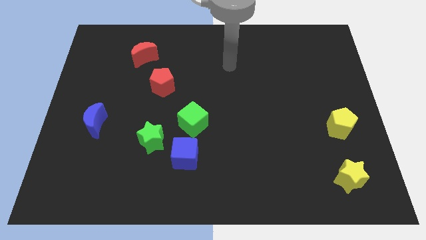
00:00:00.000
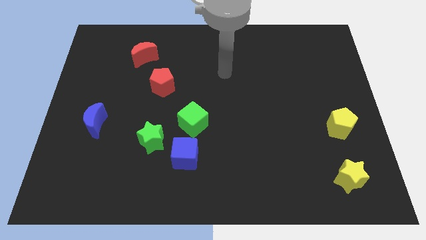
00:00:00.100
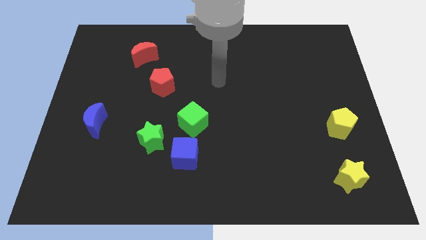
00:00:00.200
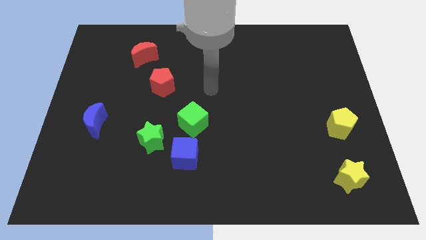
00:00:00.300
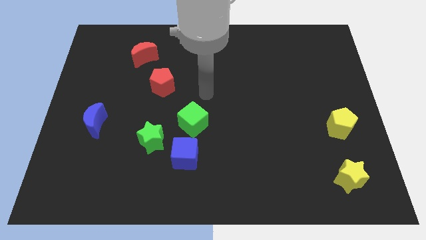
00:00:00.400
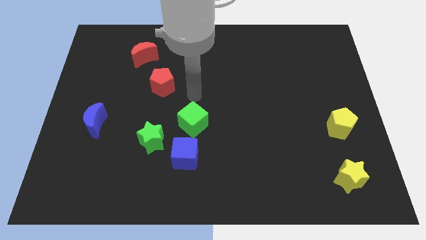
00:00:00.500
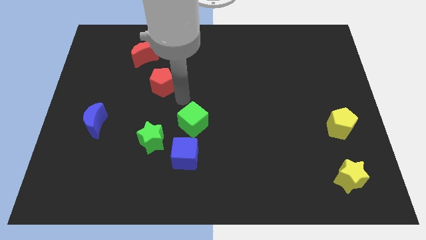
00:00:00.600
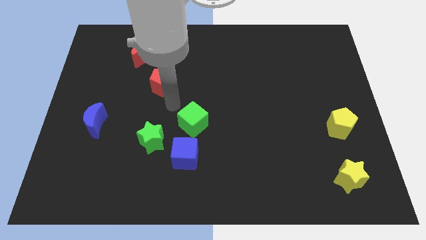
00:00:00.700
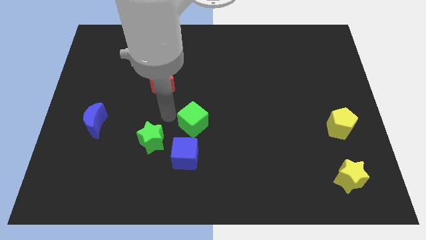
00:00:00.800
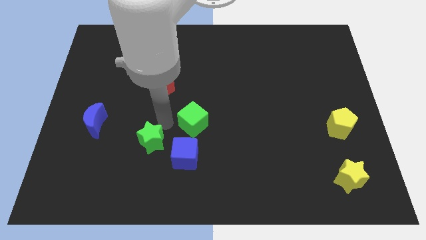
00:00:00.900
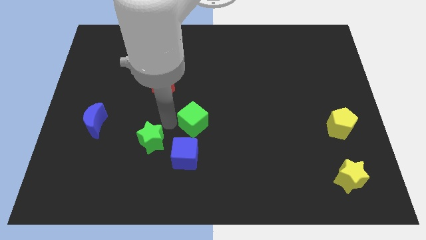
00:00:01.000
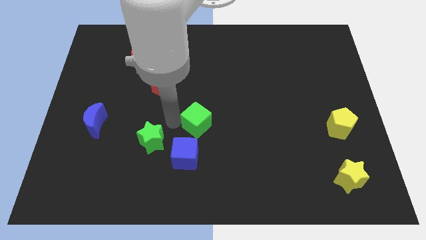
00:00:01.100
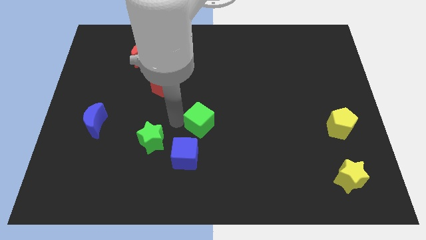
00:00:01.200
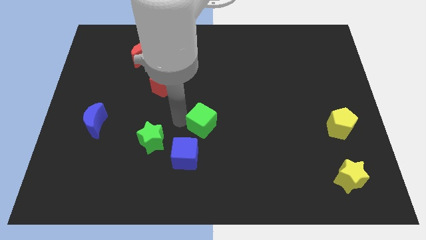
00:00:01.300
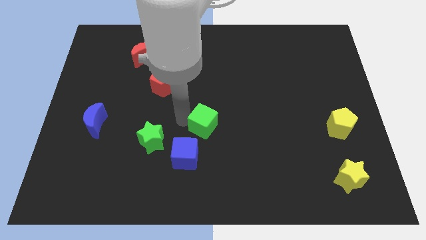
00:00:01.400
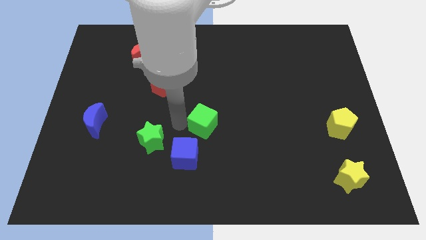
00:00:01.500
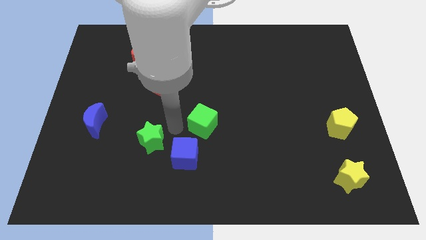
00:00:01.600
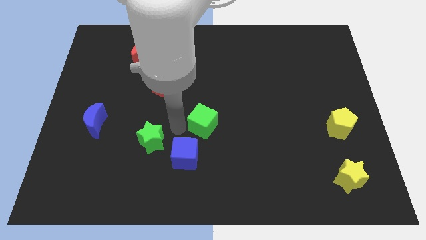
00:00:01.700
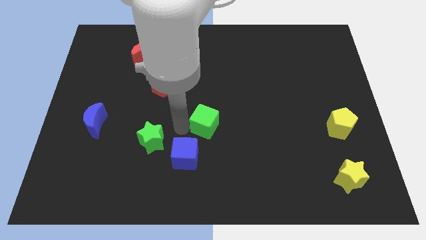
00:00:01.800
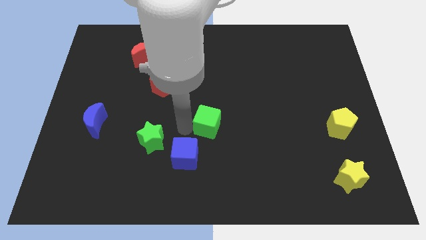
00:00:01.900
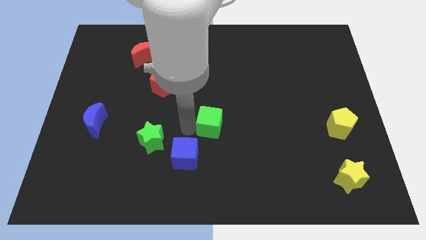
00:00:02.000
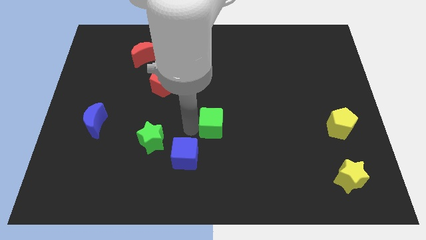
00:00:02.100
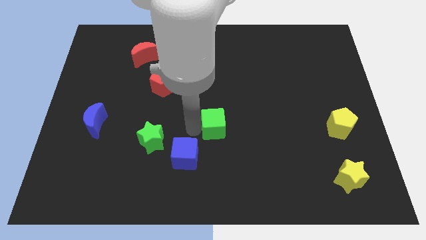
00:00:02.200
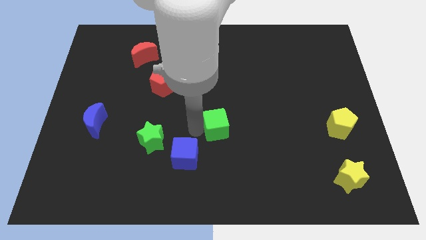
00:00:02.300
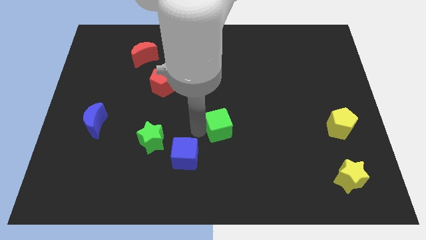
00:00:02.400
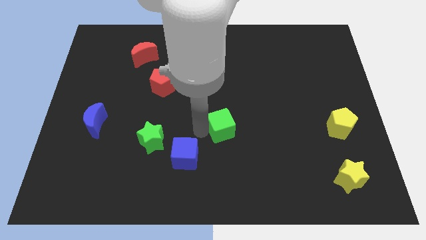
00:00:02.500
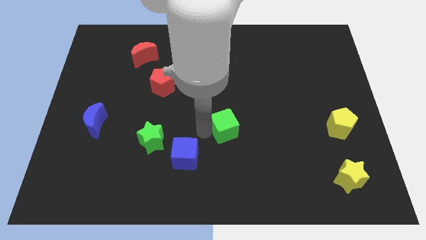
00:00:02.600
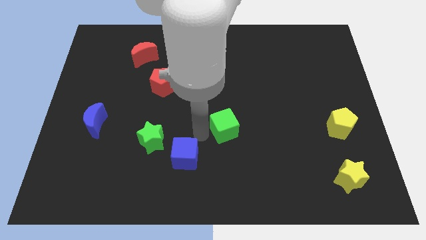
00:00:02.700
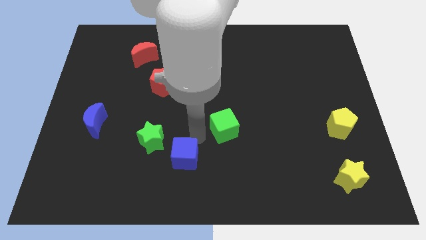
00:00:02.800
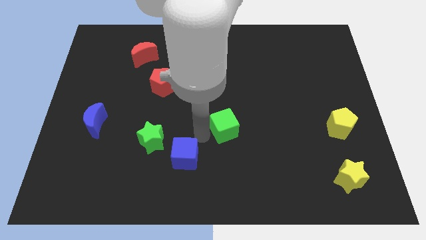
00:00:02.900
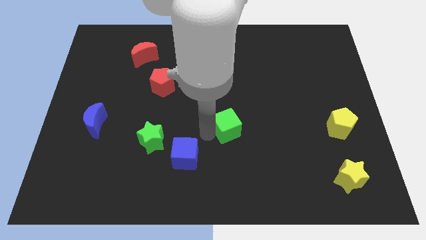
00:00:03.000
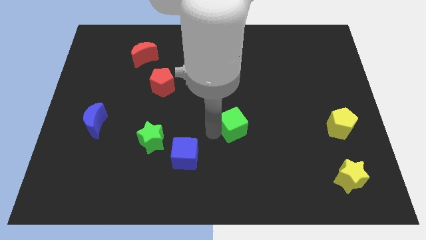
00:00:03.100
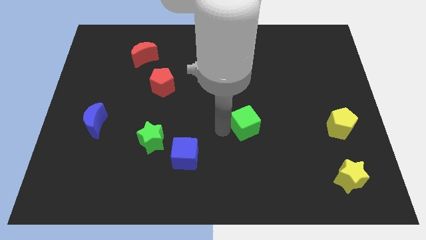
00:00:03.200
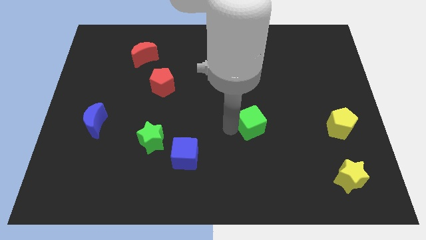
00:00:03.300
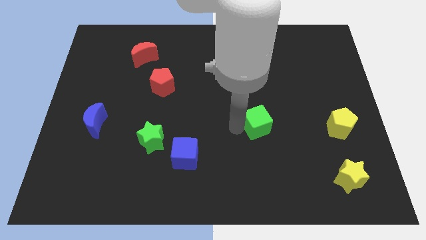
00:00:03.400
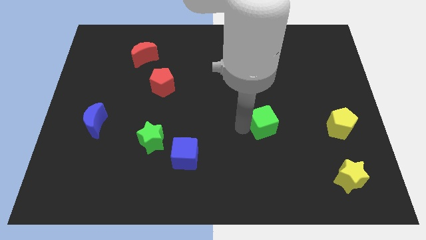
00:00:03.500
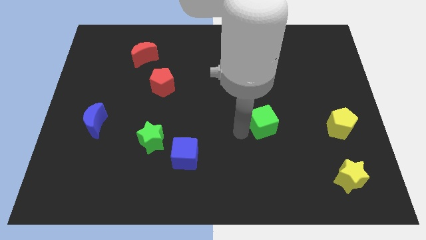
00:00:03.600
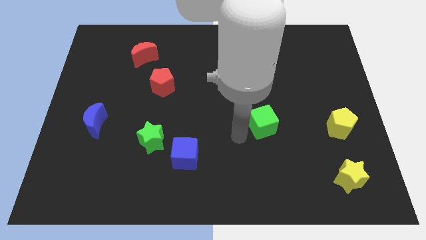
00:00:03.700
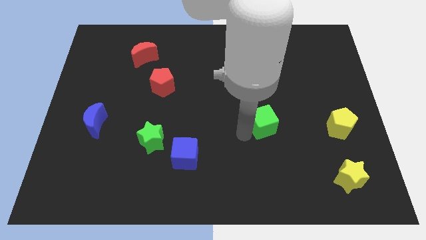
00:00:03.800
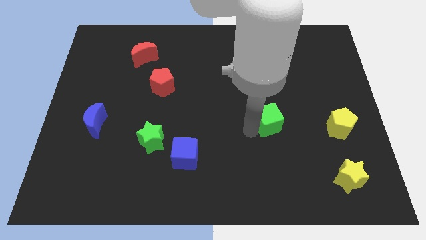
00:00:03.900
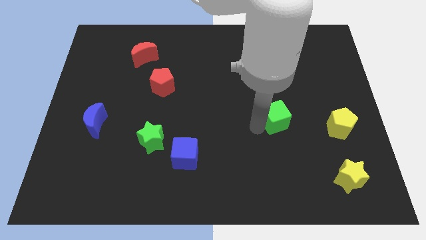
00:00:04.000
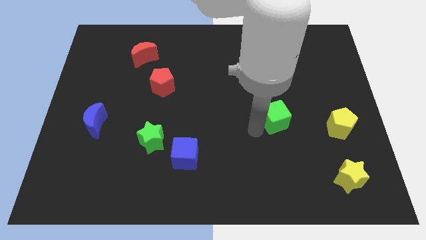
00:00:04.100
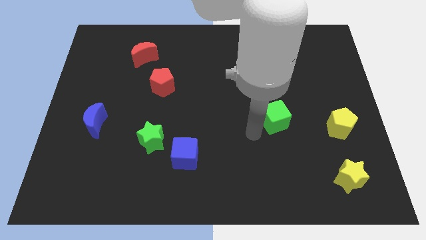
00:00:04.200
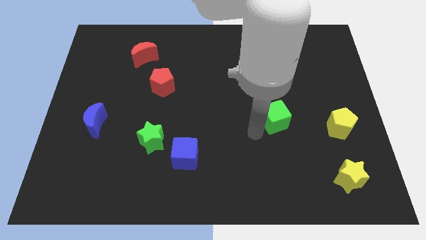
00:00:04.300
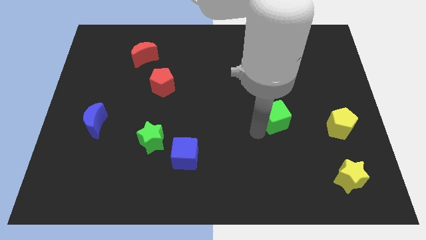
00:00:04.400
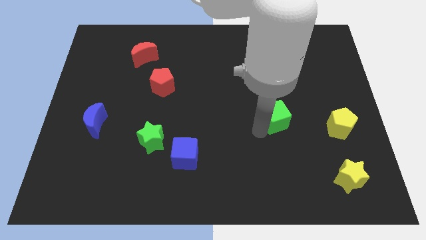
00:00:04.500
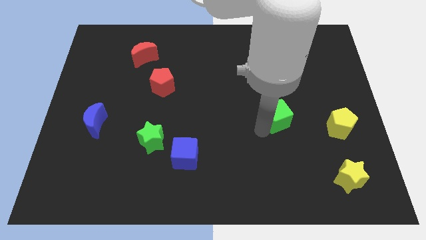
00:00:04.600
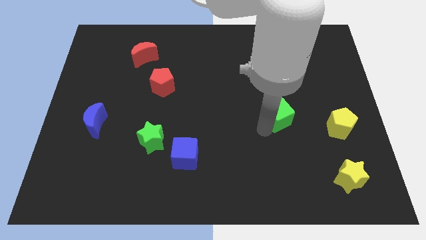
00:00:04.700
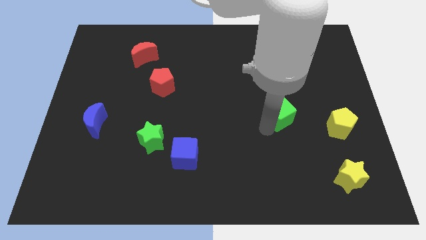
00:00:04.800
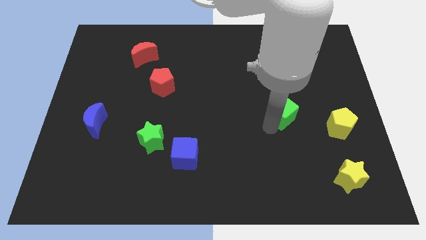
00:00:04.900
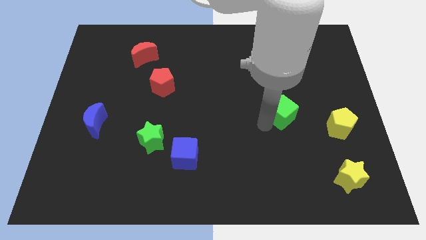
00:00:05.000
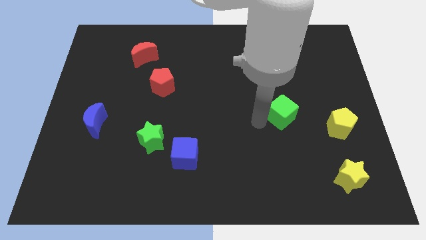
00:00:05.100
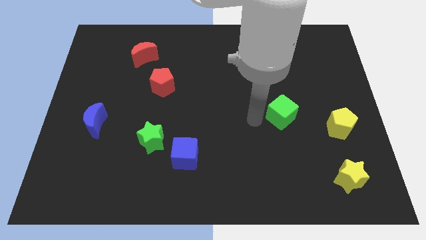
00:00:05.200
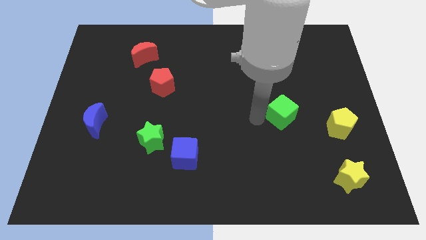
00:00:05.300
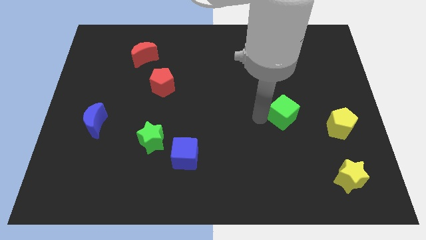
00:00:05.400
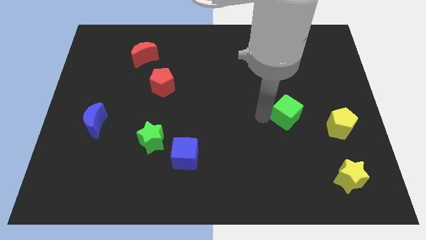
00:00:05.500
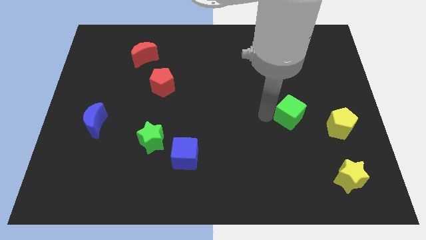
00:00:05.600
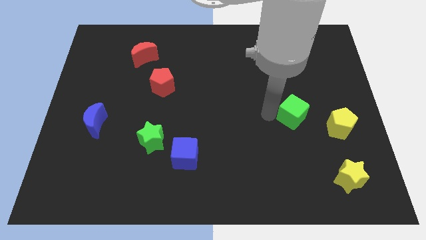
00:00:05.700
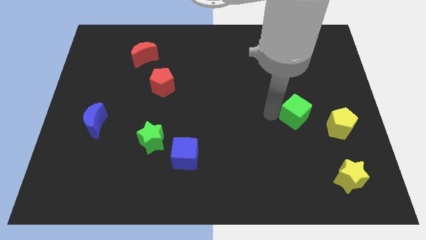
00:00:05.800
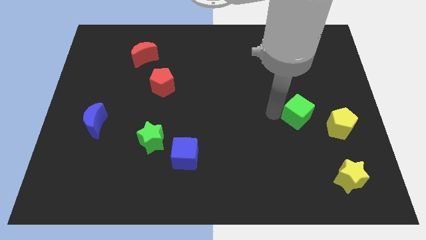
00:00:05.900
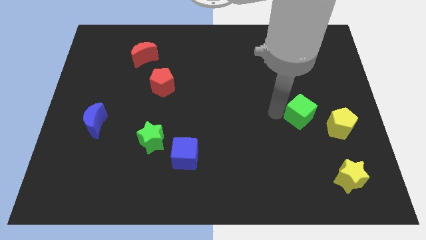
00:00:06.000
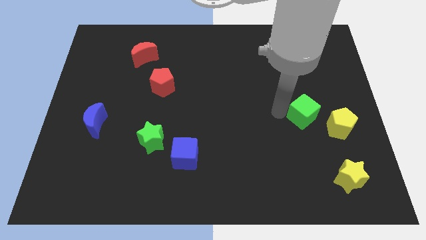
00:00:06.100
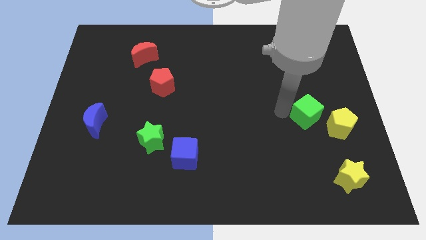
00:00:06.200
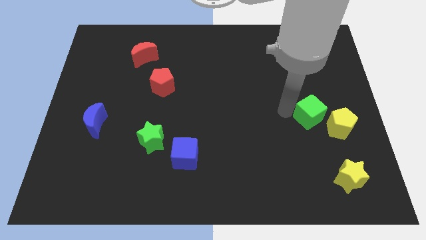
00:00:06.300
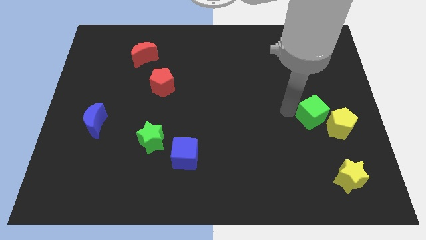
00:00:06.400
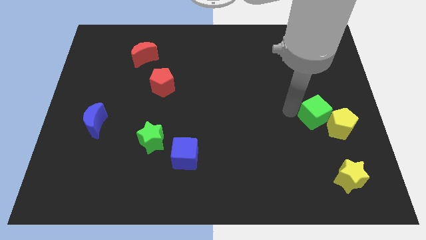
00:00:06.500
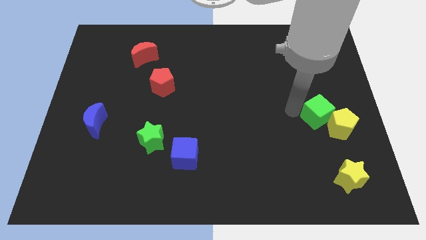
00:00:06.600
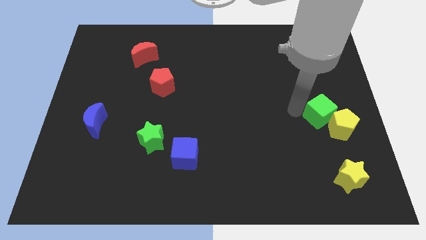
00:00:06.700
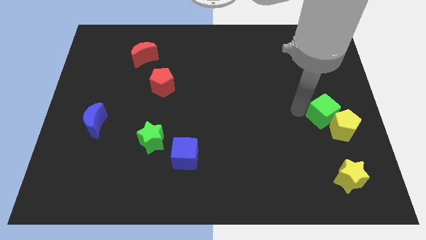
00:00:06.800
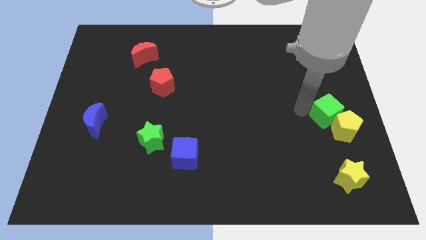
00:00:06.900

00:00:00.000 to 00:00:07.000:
push the green cube to the right side of the board
